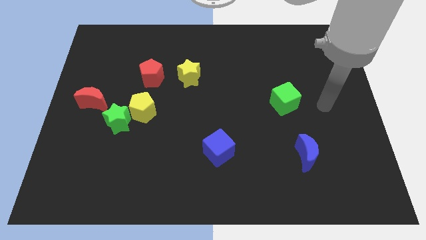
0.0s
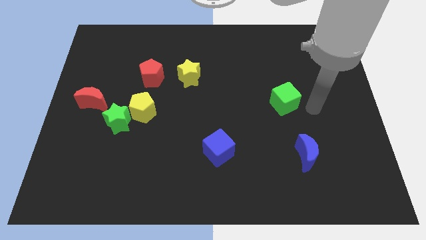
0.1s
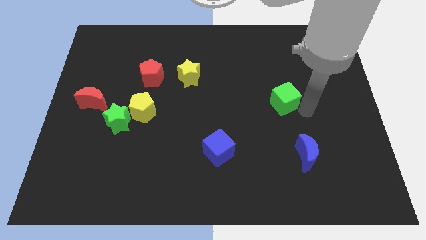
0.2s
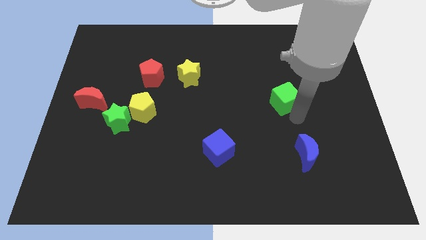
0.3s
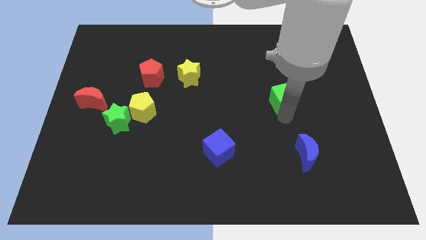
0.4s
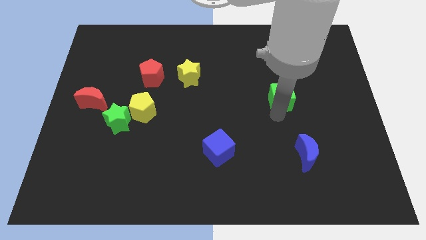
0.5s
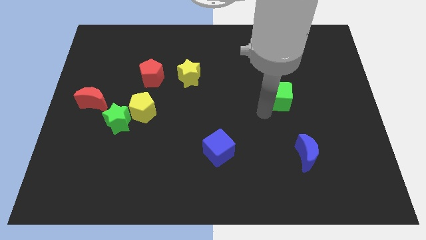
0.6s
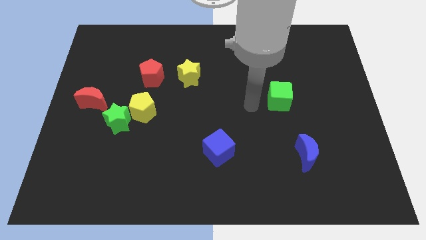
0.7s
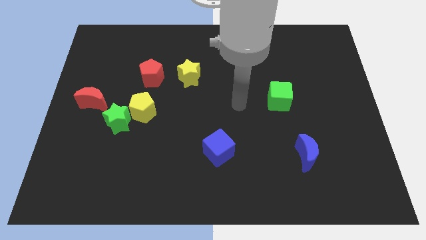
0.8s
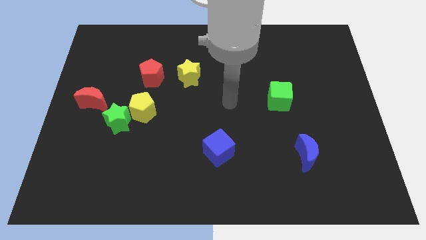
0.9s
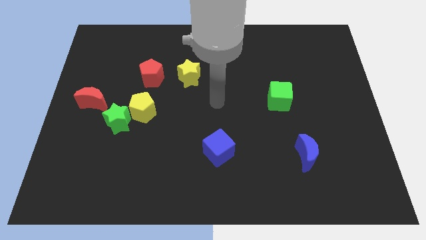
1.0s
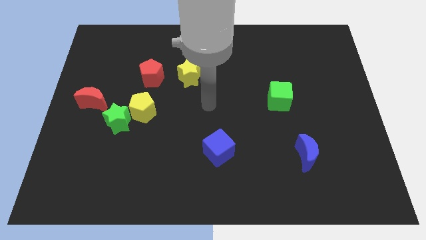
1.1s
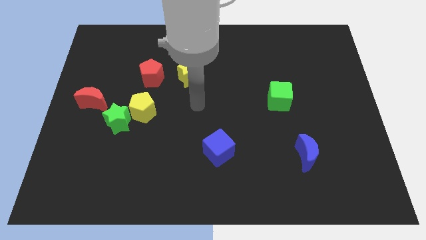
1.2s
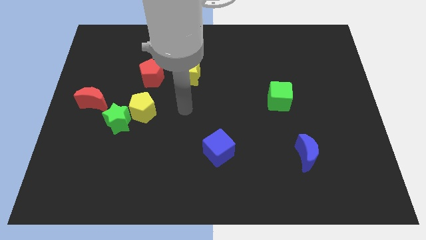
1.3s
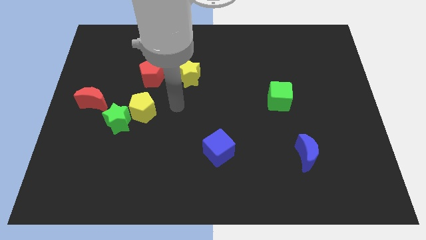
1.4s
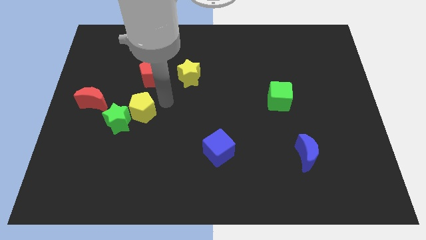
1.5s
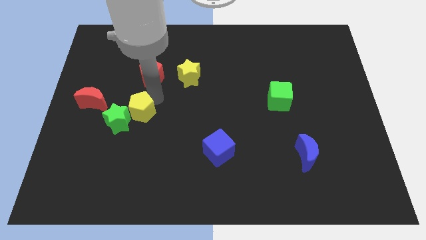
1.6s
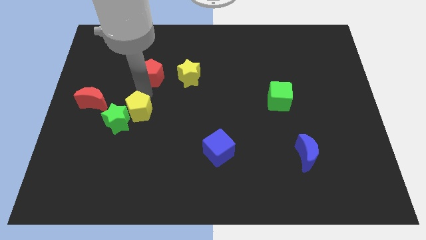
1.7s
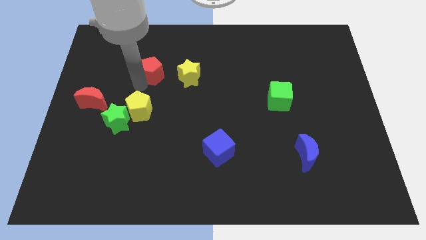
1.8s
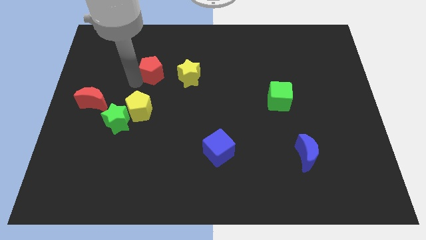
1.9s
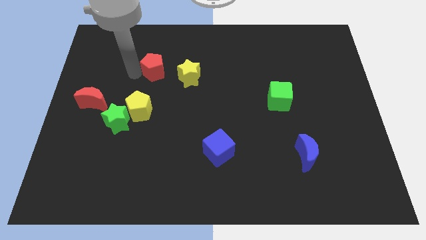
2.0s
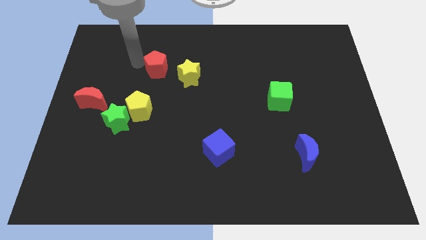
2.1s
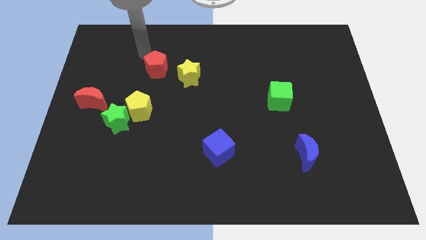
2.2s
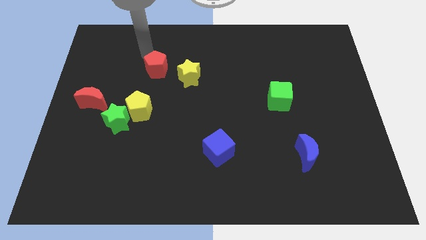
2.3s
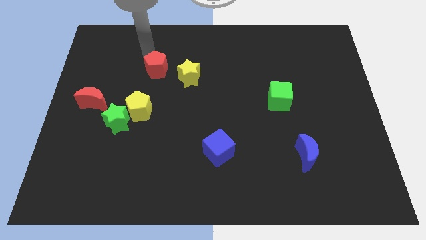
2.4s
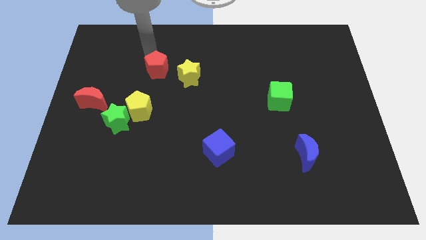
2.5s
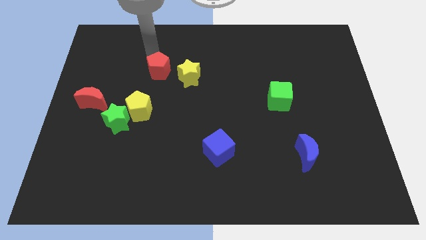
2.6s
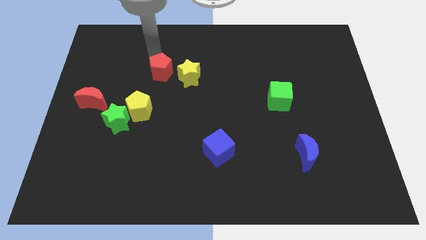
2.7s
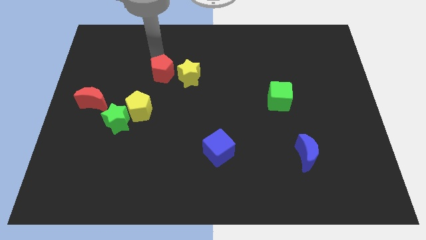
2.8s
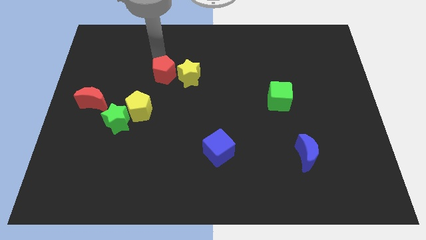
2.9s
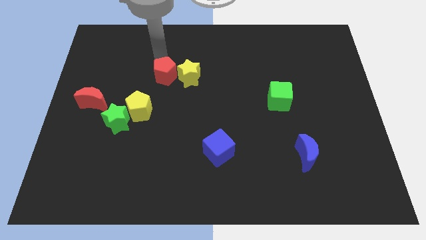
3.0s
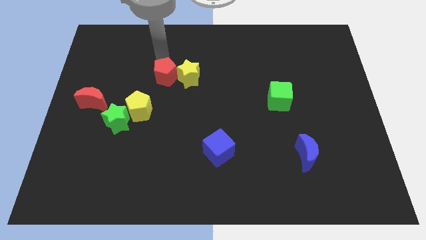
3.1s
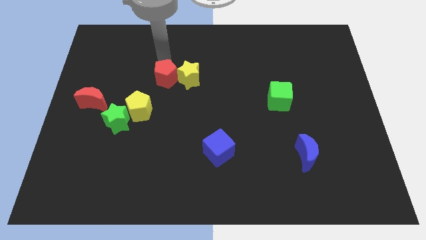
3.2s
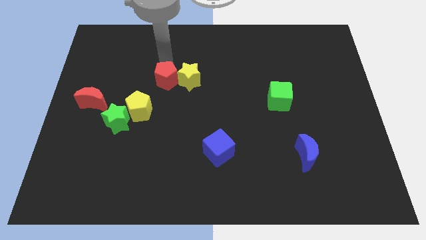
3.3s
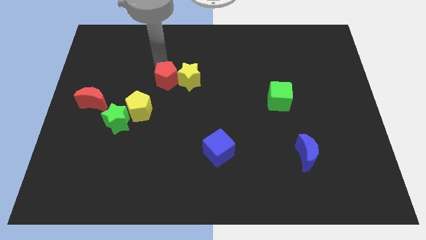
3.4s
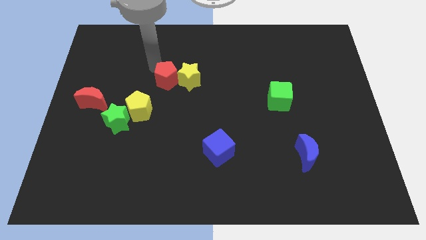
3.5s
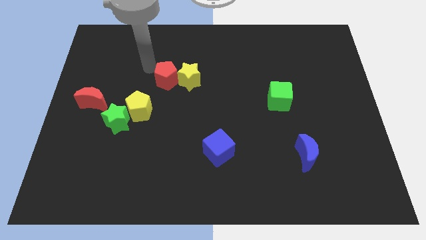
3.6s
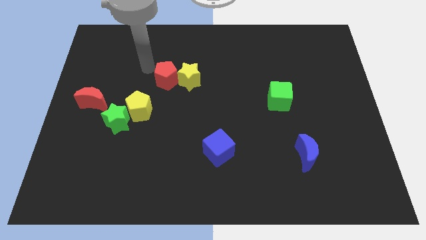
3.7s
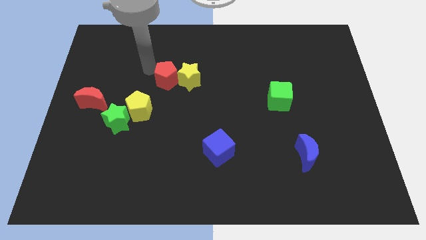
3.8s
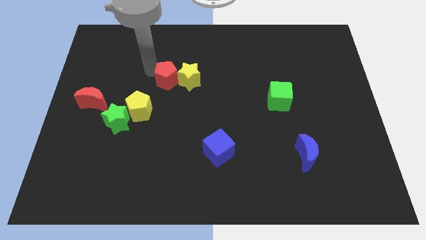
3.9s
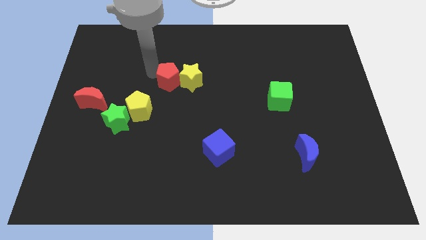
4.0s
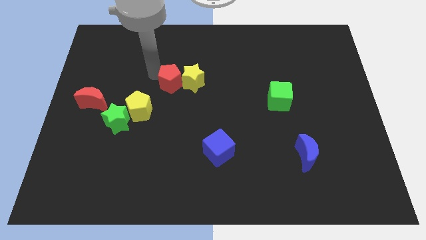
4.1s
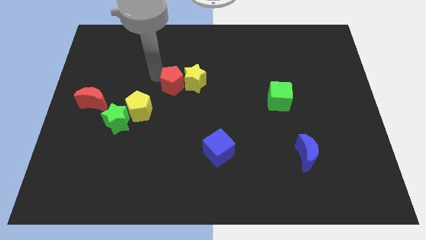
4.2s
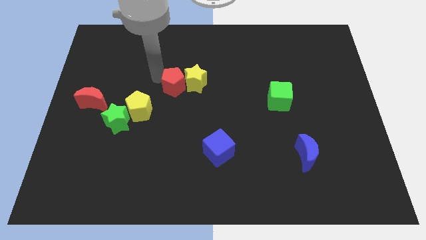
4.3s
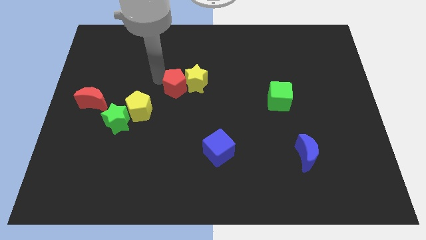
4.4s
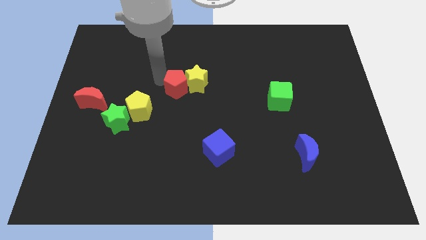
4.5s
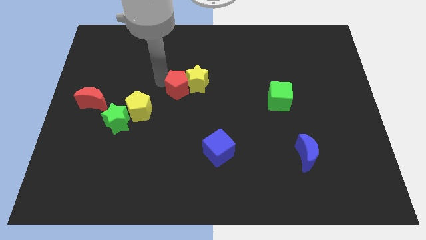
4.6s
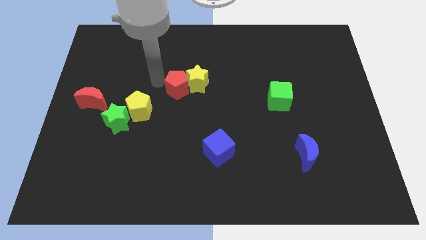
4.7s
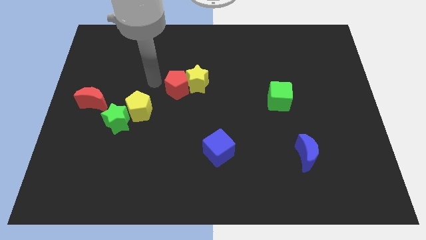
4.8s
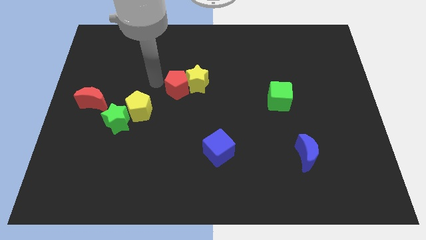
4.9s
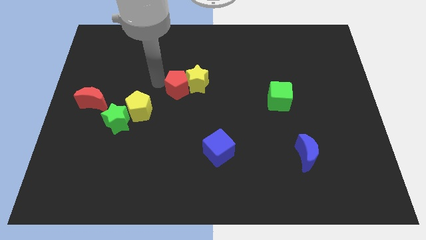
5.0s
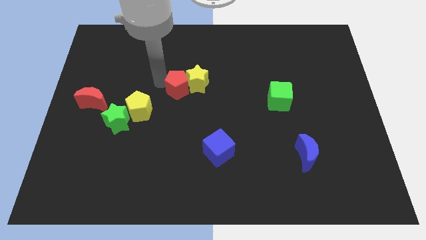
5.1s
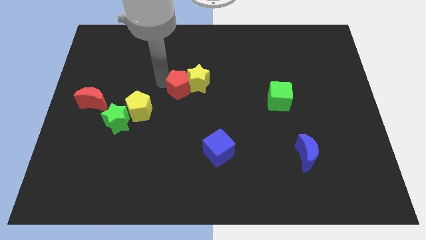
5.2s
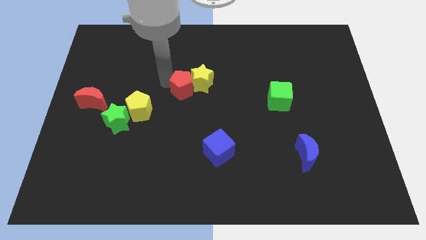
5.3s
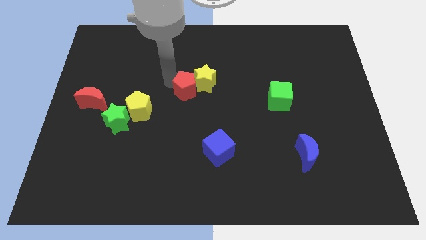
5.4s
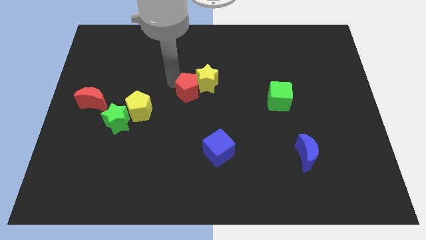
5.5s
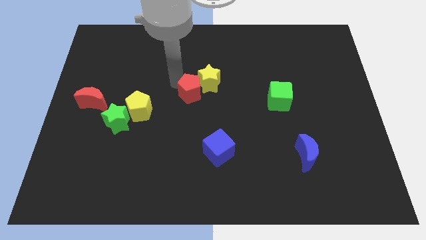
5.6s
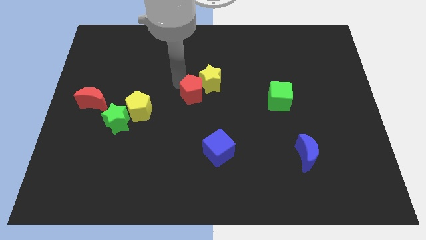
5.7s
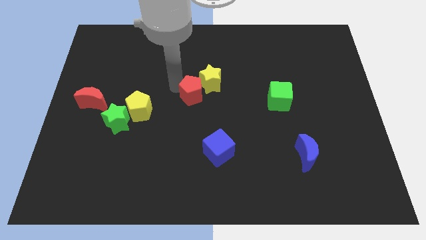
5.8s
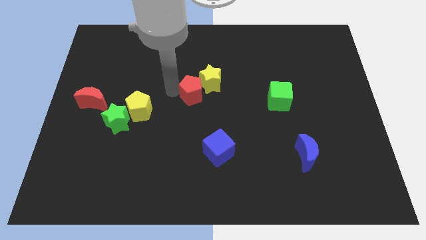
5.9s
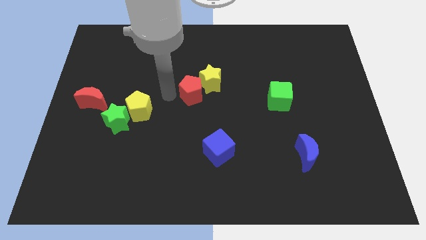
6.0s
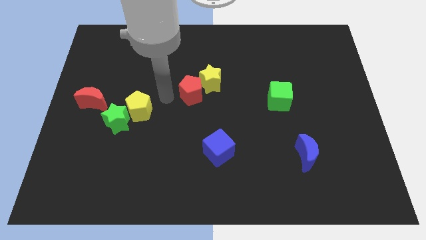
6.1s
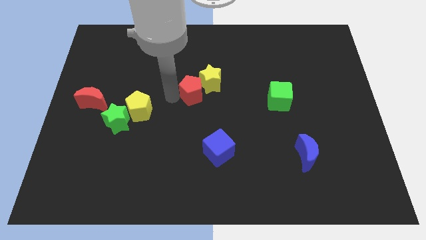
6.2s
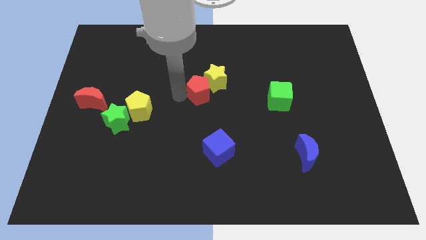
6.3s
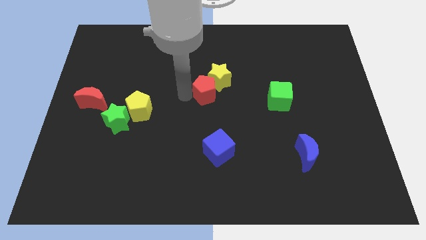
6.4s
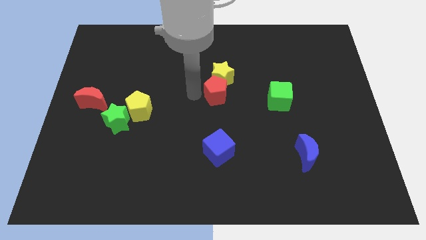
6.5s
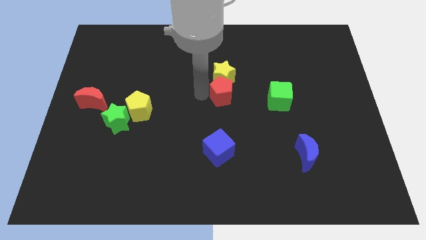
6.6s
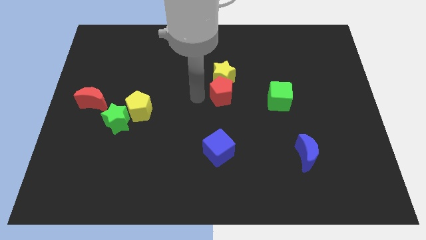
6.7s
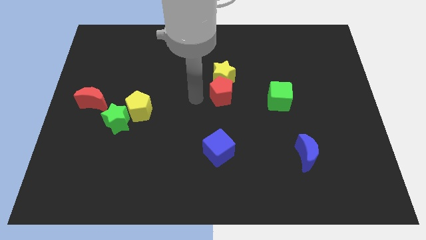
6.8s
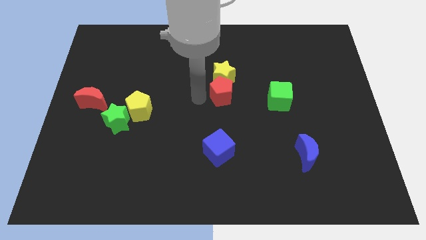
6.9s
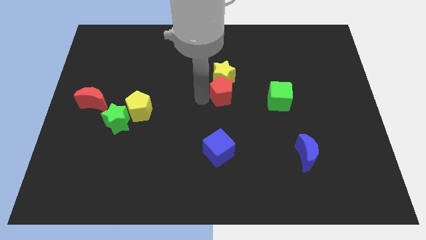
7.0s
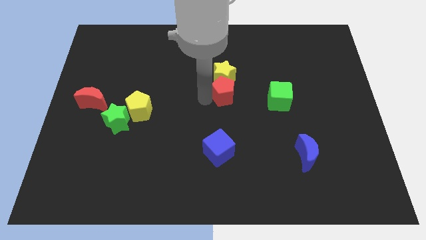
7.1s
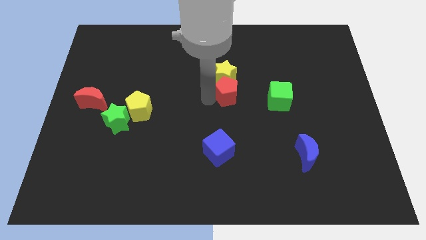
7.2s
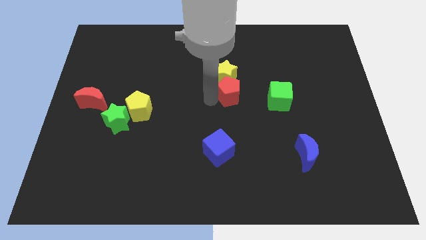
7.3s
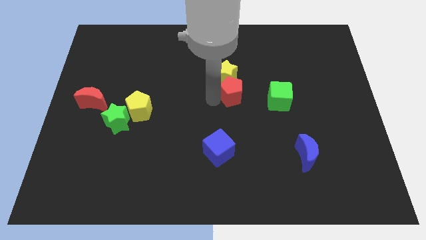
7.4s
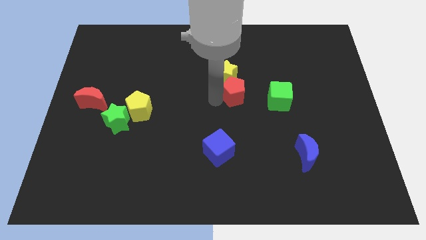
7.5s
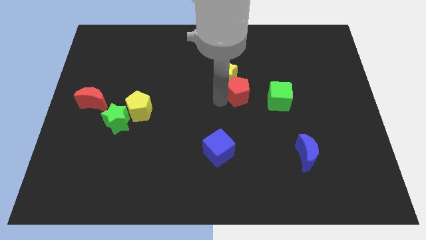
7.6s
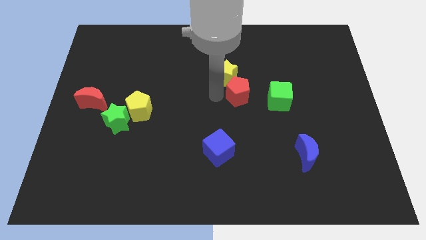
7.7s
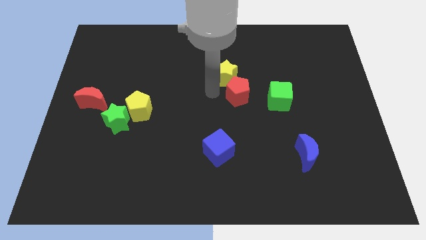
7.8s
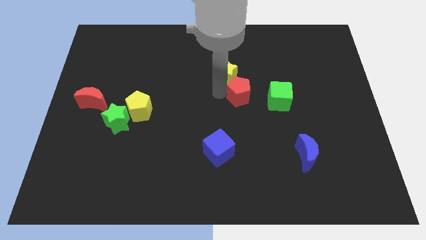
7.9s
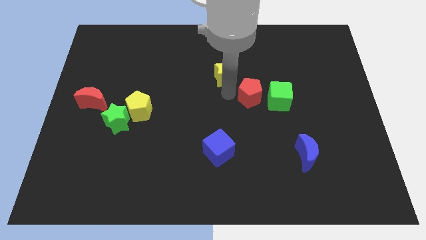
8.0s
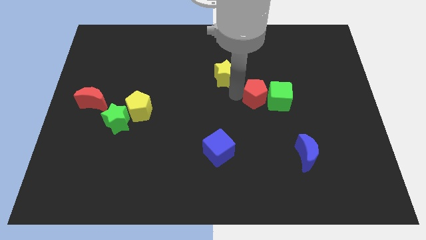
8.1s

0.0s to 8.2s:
slide the red pentagon to the green cube
